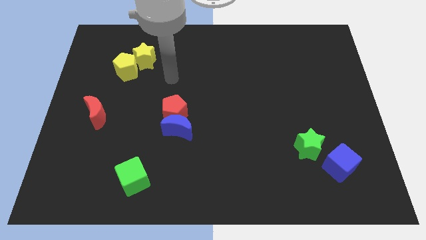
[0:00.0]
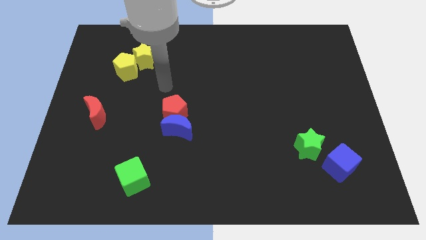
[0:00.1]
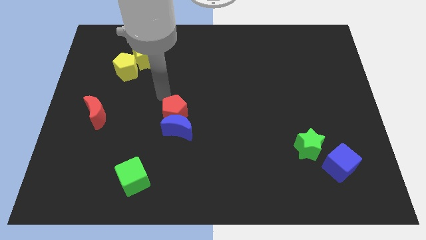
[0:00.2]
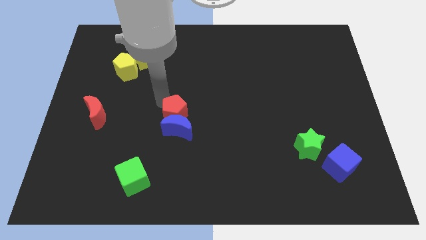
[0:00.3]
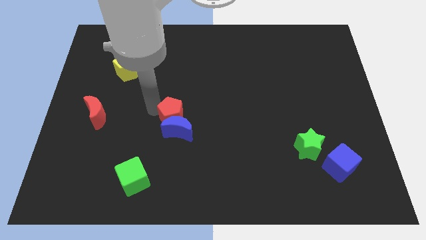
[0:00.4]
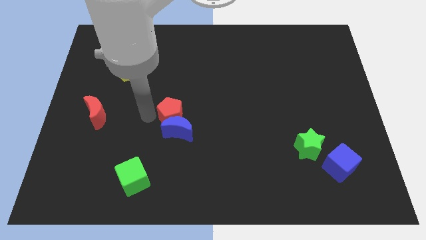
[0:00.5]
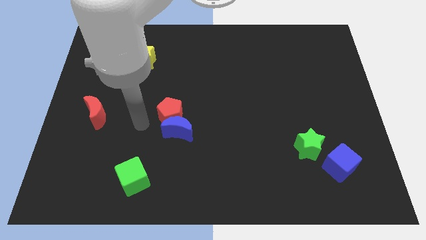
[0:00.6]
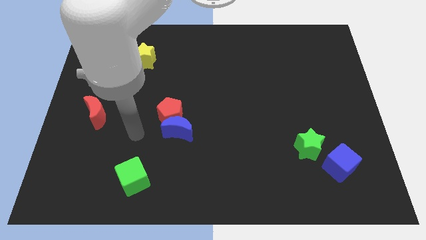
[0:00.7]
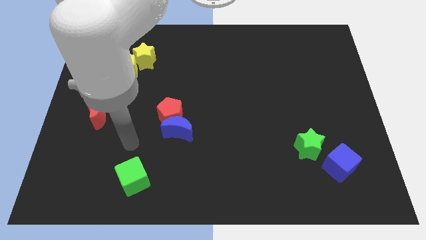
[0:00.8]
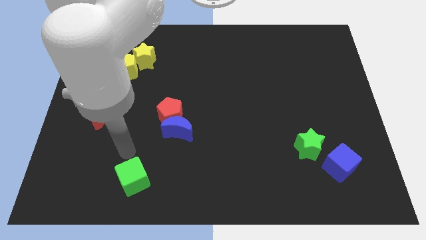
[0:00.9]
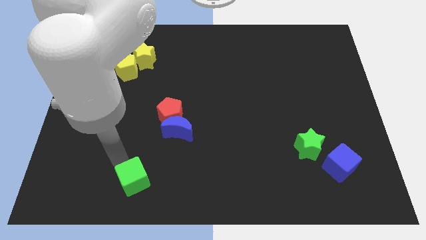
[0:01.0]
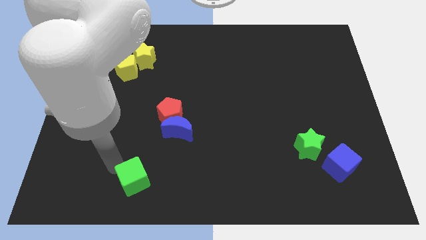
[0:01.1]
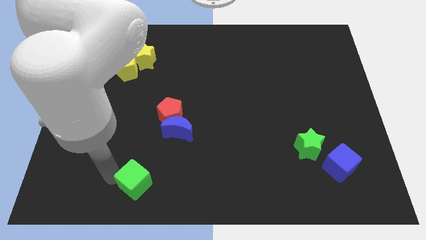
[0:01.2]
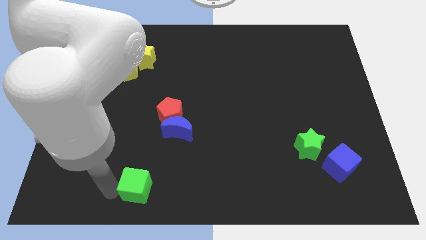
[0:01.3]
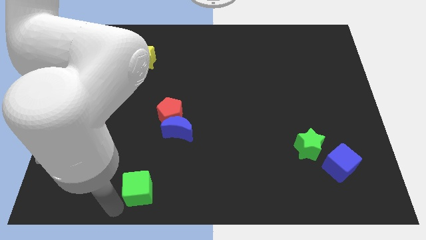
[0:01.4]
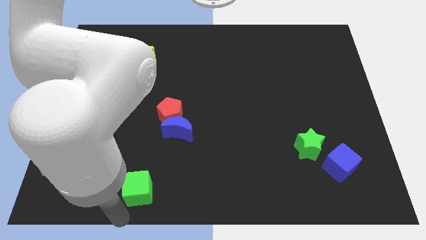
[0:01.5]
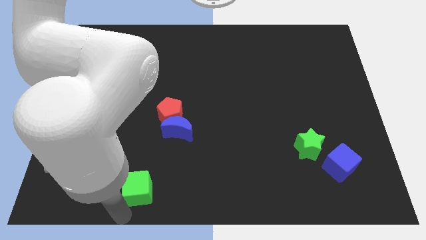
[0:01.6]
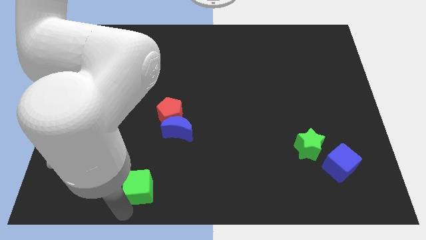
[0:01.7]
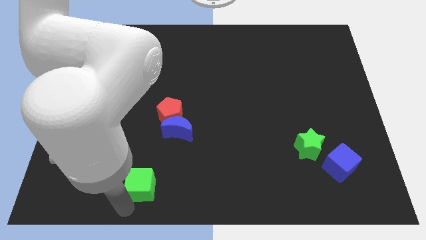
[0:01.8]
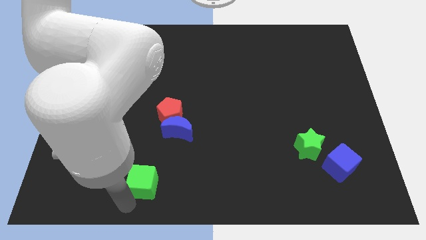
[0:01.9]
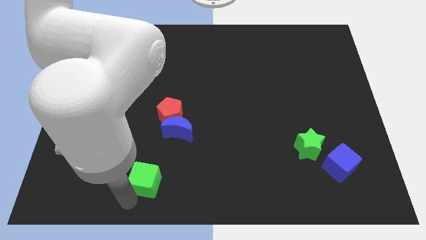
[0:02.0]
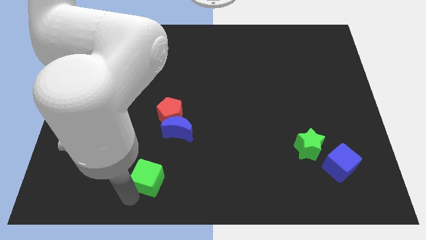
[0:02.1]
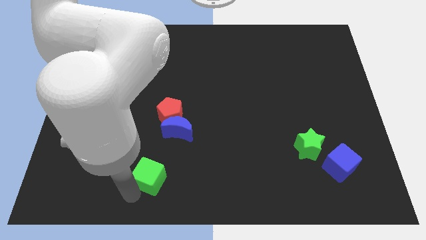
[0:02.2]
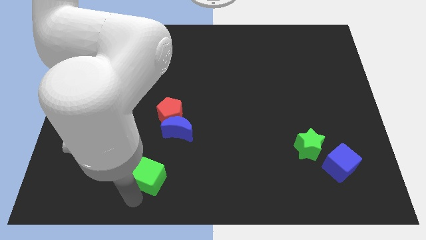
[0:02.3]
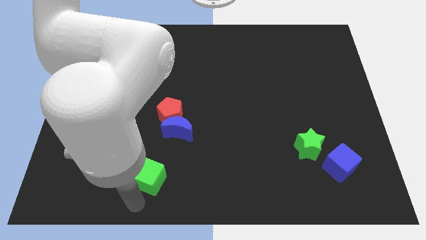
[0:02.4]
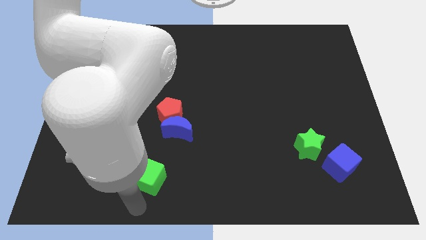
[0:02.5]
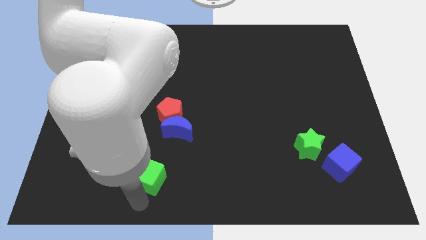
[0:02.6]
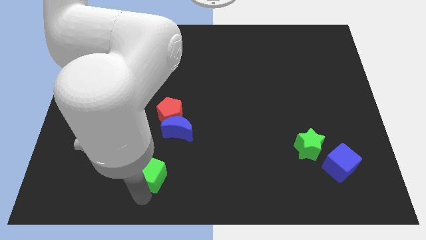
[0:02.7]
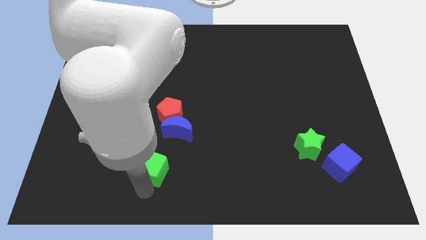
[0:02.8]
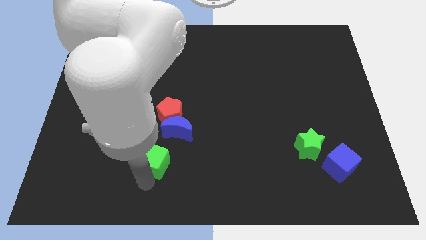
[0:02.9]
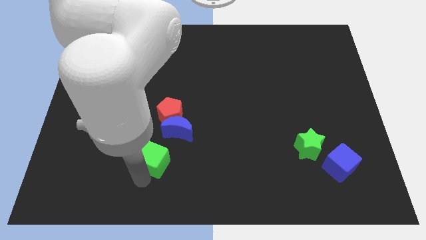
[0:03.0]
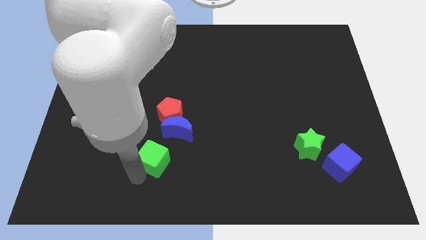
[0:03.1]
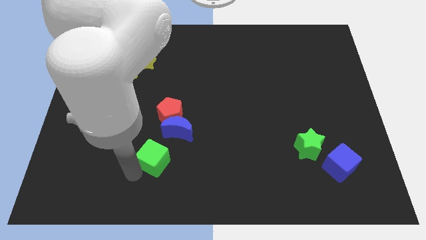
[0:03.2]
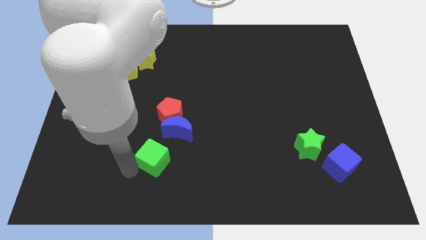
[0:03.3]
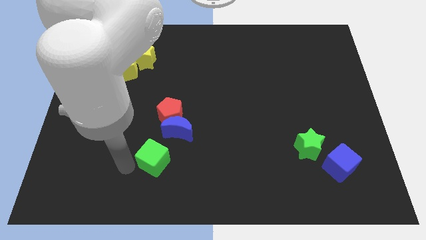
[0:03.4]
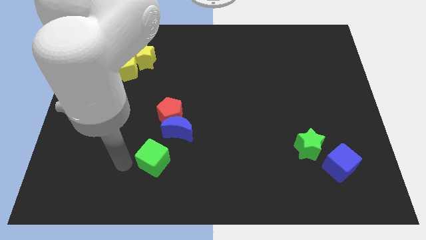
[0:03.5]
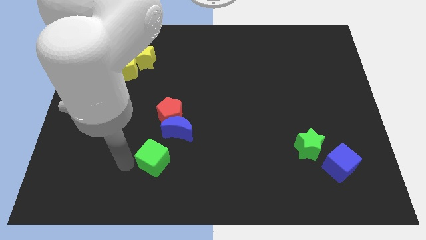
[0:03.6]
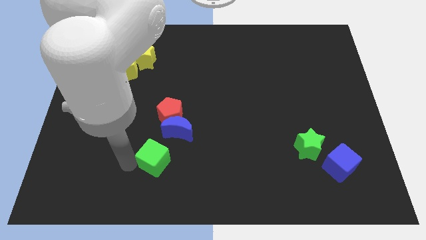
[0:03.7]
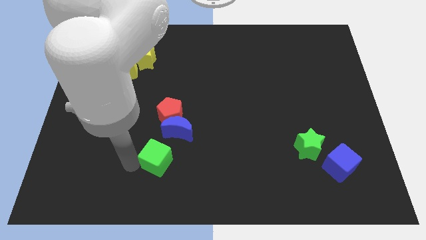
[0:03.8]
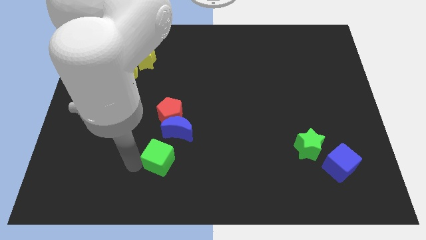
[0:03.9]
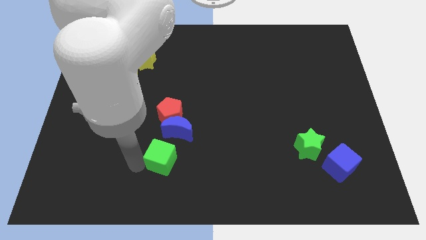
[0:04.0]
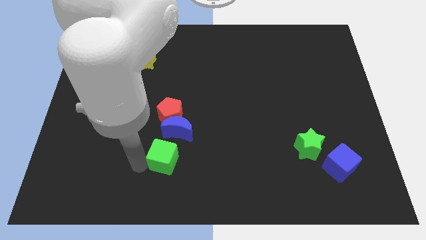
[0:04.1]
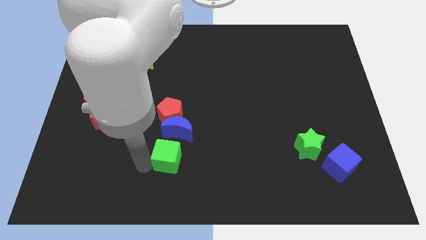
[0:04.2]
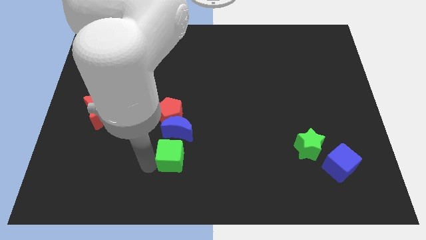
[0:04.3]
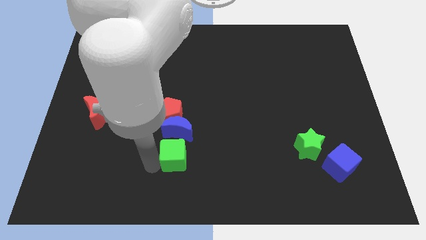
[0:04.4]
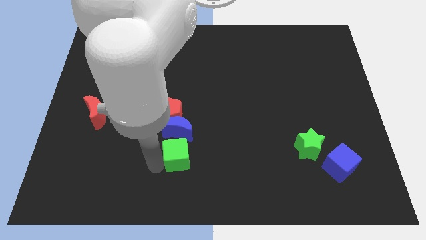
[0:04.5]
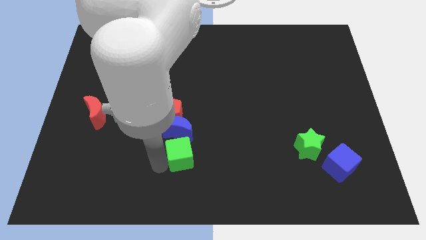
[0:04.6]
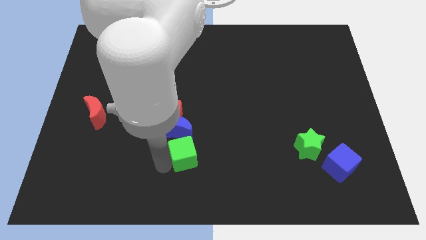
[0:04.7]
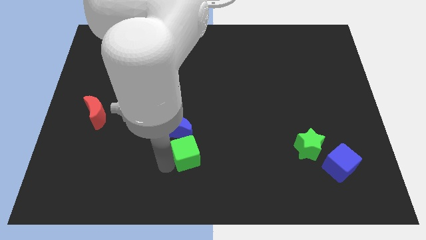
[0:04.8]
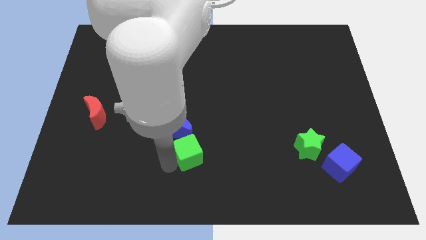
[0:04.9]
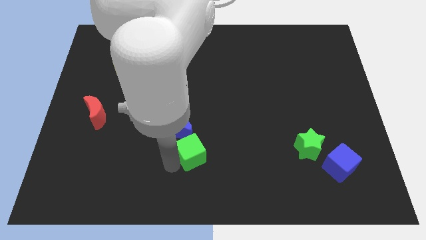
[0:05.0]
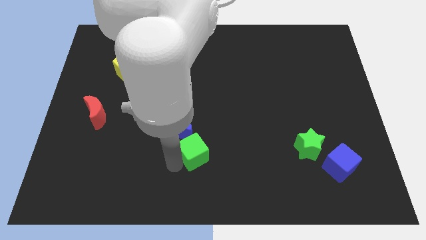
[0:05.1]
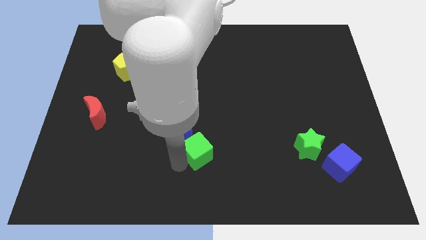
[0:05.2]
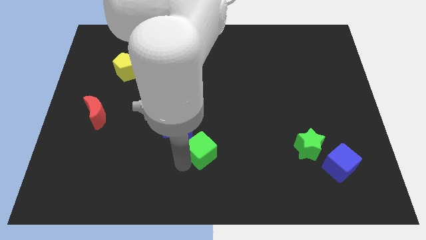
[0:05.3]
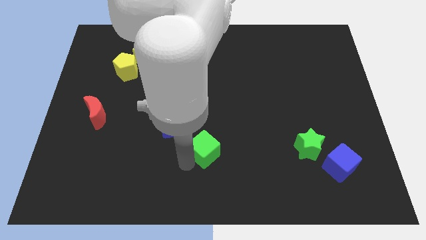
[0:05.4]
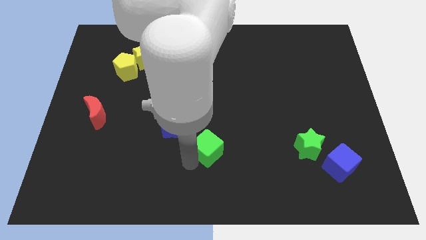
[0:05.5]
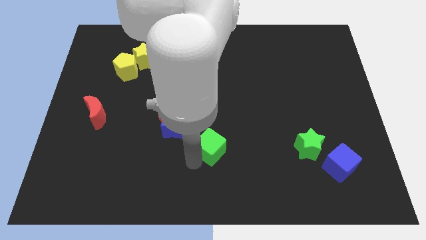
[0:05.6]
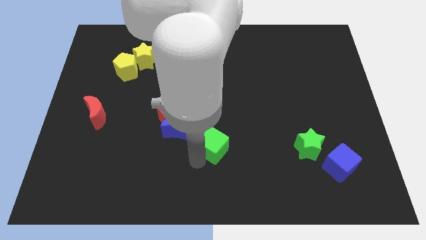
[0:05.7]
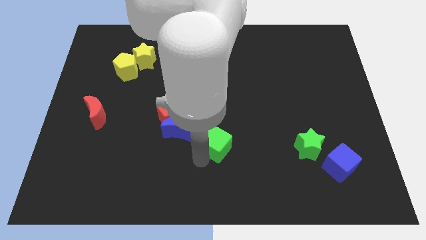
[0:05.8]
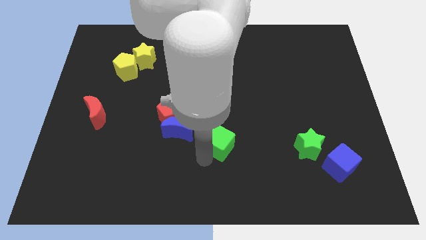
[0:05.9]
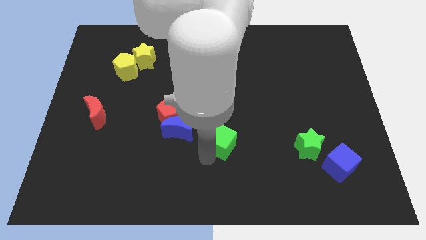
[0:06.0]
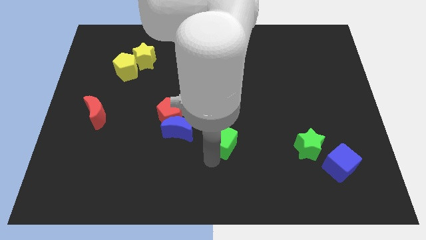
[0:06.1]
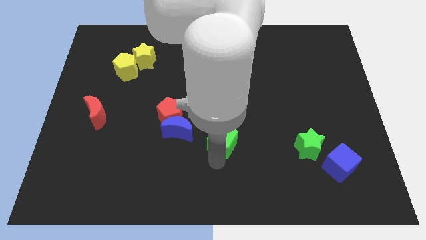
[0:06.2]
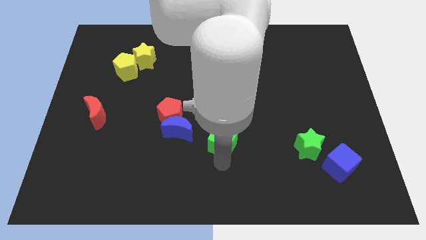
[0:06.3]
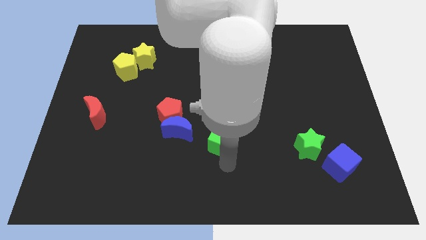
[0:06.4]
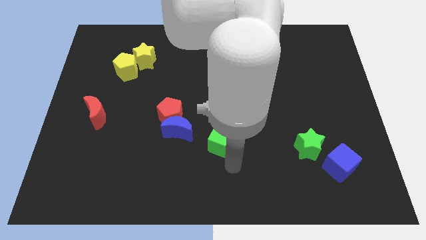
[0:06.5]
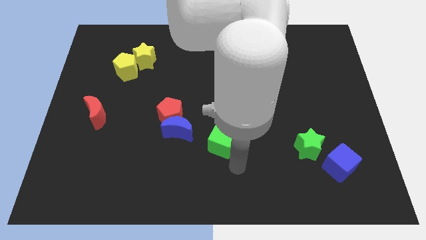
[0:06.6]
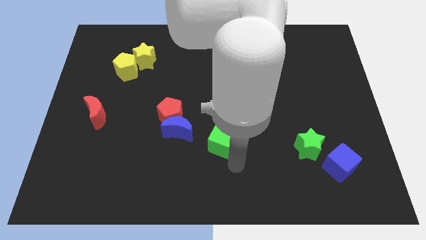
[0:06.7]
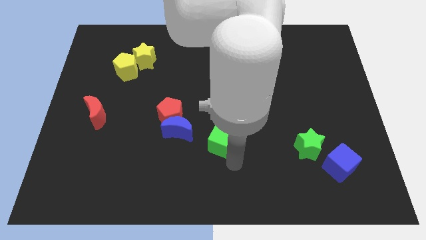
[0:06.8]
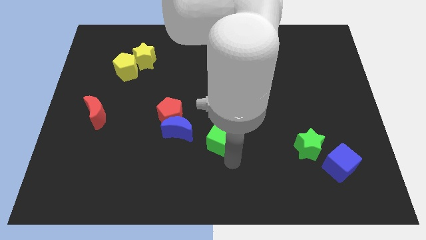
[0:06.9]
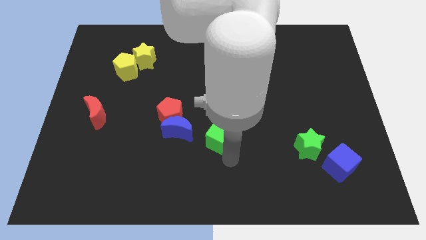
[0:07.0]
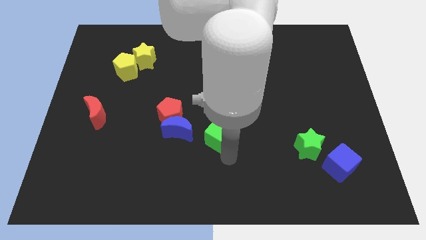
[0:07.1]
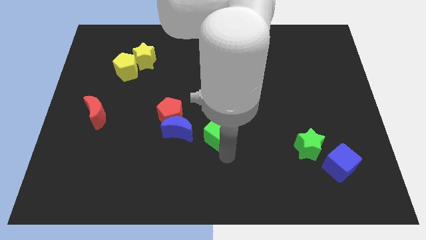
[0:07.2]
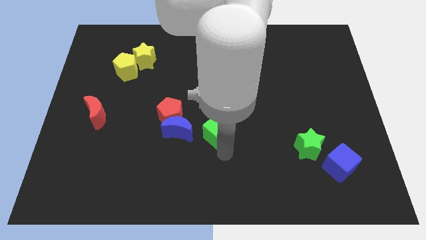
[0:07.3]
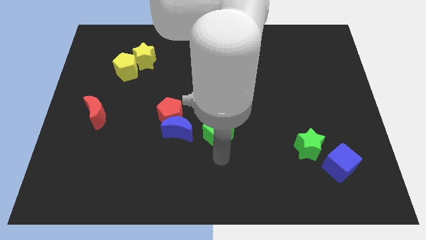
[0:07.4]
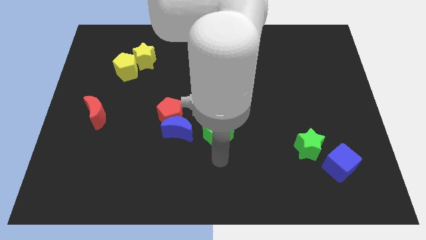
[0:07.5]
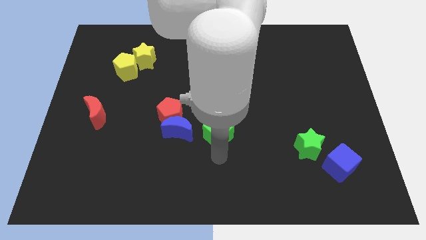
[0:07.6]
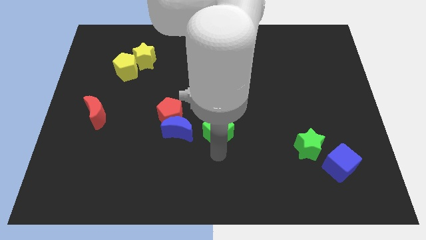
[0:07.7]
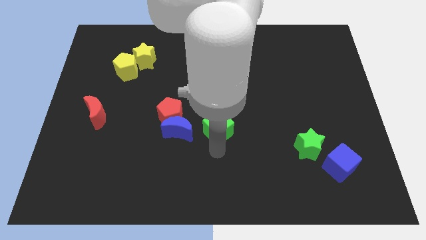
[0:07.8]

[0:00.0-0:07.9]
move the green cube up and right diagonally

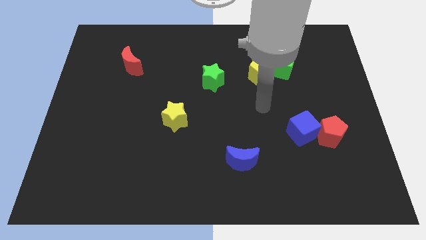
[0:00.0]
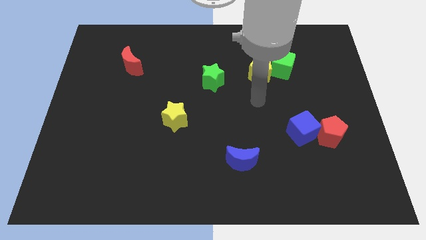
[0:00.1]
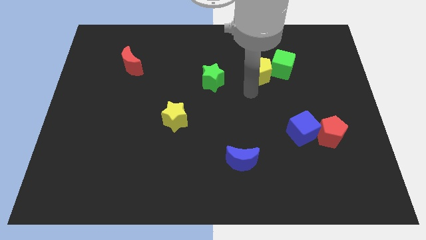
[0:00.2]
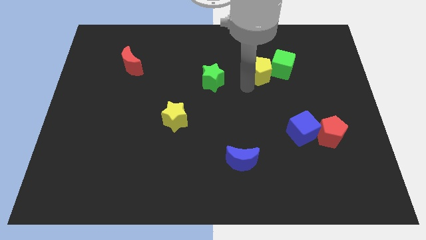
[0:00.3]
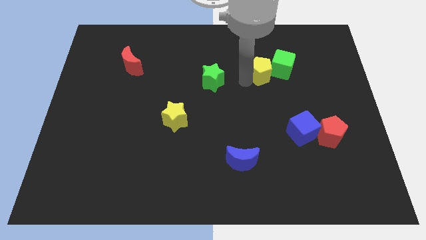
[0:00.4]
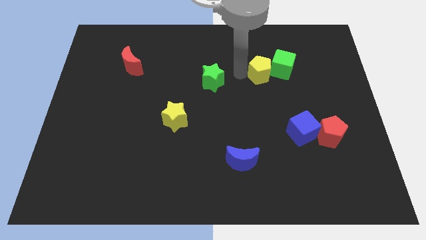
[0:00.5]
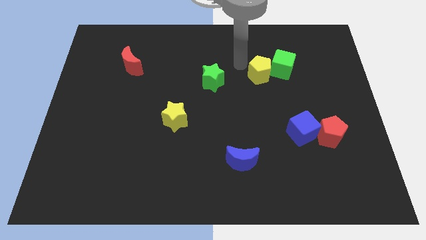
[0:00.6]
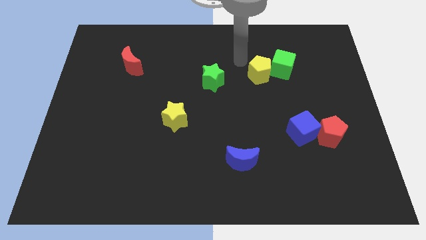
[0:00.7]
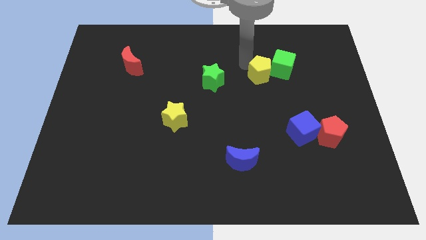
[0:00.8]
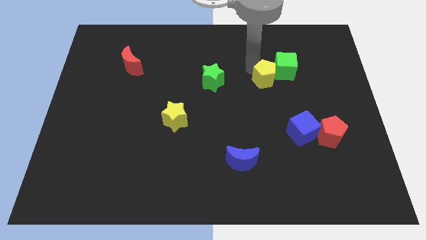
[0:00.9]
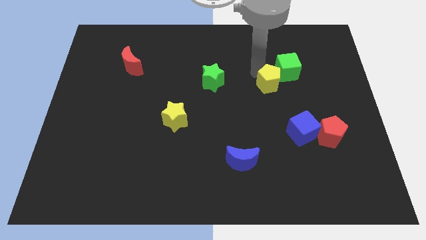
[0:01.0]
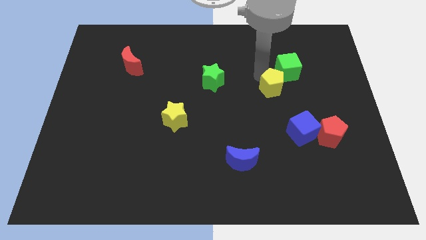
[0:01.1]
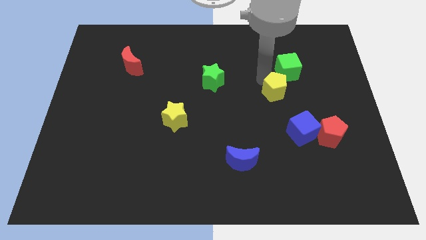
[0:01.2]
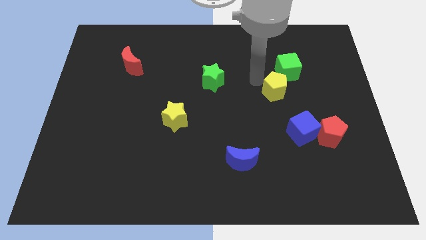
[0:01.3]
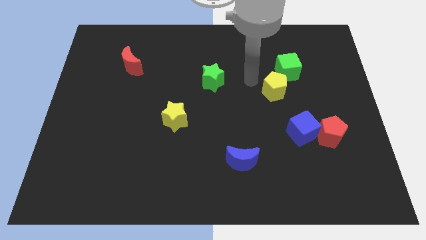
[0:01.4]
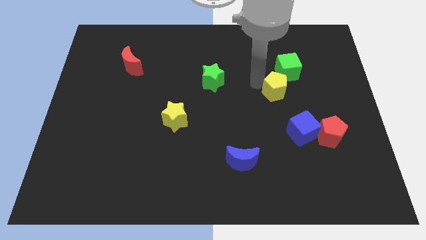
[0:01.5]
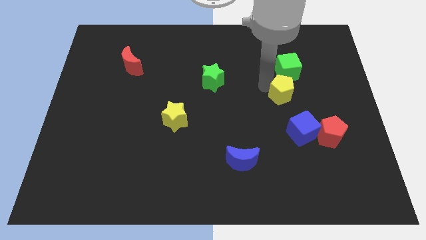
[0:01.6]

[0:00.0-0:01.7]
move the yellow pentagon somewhat down and right diagonally
